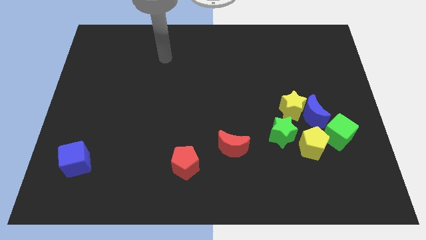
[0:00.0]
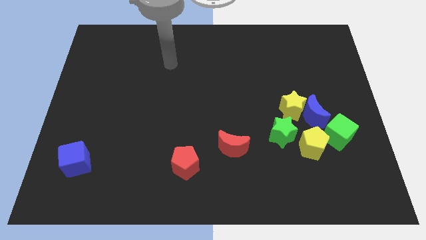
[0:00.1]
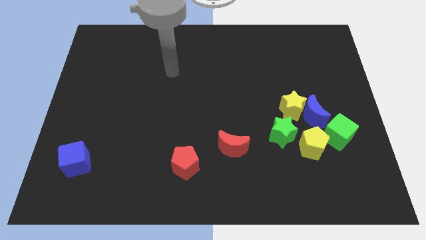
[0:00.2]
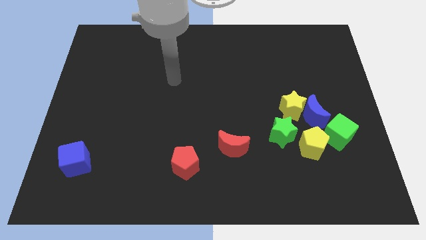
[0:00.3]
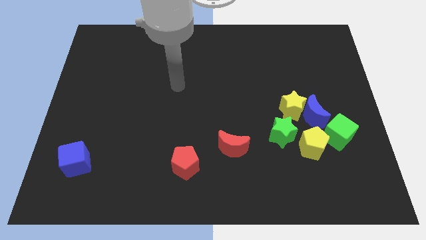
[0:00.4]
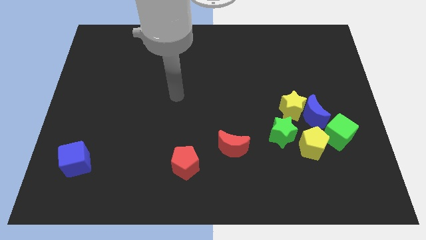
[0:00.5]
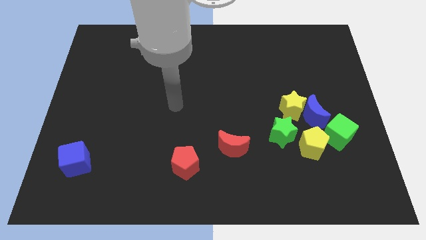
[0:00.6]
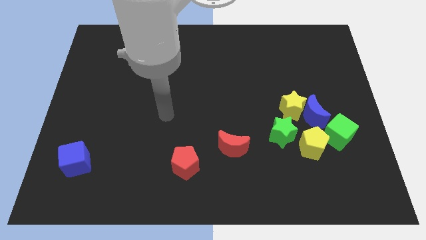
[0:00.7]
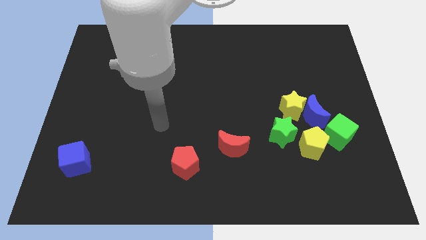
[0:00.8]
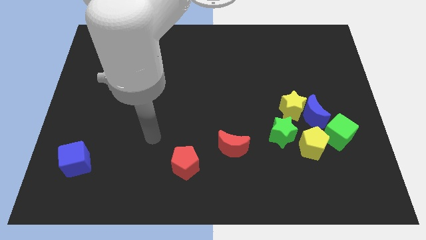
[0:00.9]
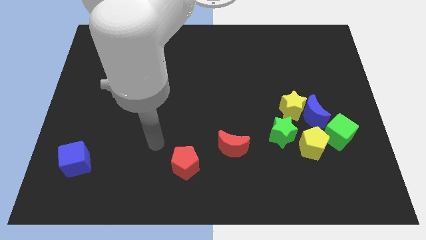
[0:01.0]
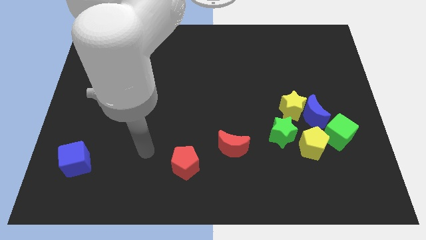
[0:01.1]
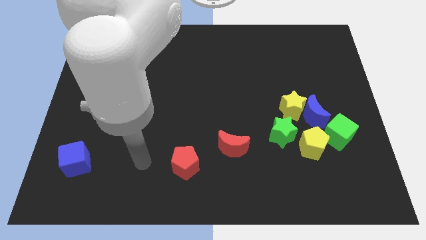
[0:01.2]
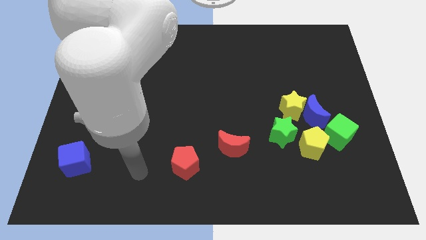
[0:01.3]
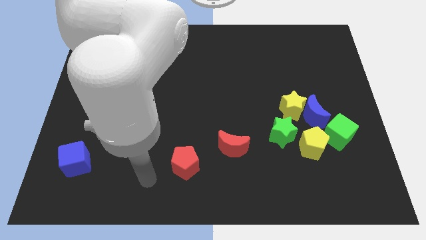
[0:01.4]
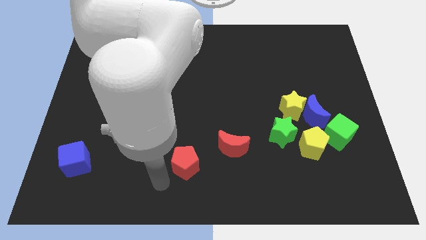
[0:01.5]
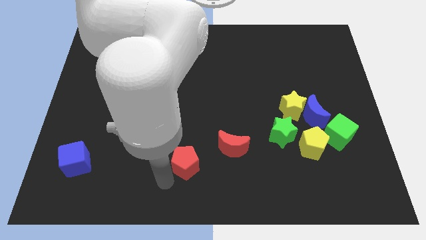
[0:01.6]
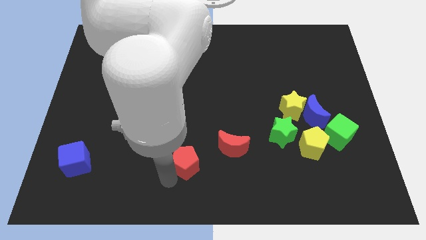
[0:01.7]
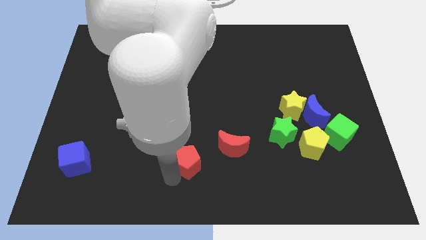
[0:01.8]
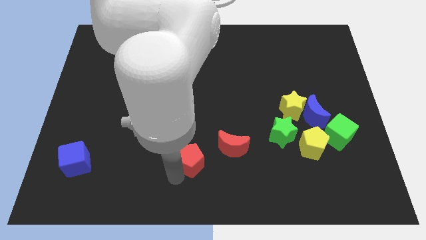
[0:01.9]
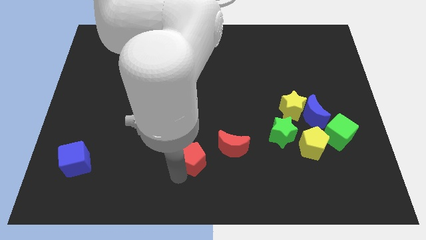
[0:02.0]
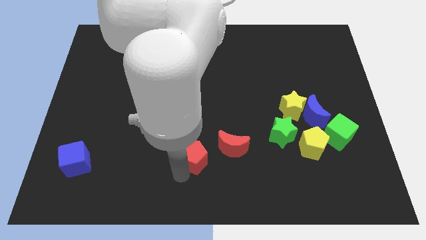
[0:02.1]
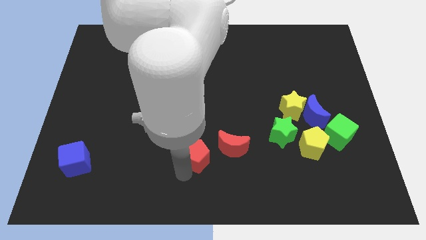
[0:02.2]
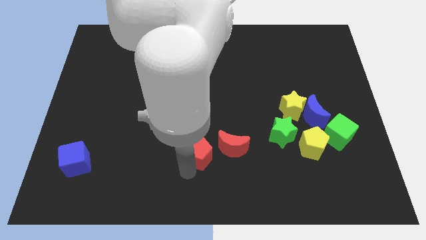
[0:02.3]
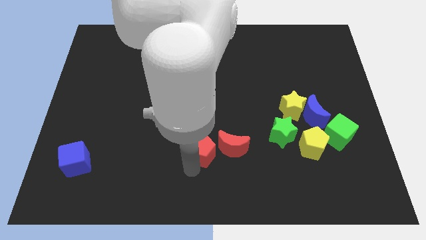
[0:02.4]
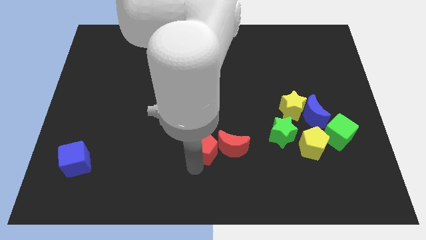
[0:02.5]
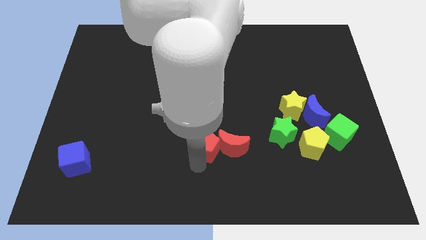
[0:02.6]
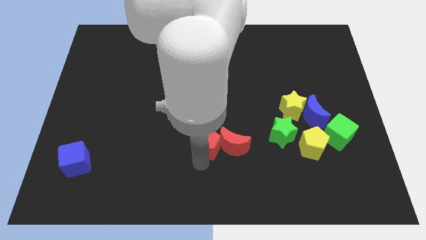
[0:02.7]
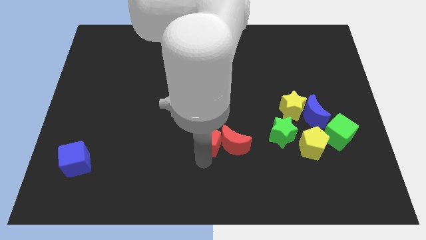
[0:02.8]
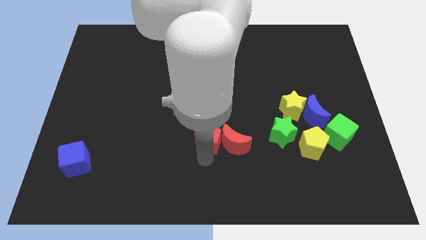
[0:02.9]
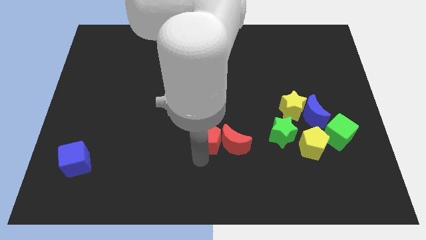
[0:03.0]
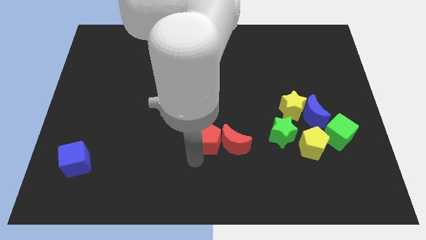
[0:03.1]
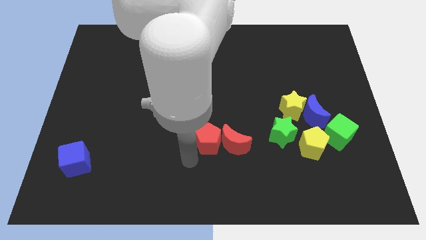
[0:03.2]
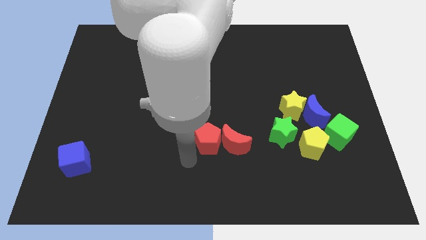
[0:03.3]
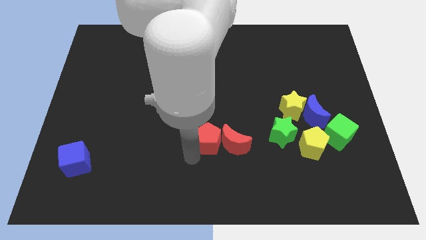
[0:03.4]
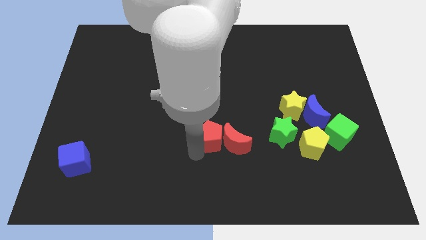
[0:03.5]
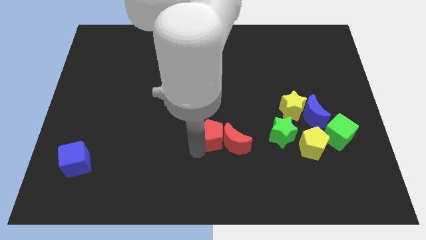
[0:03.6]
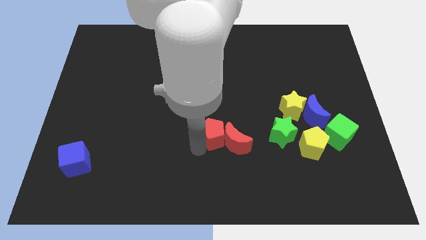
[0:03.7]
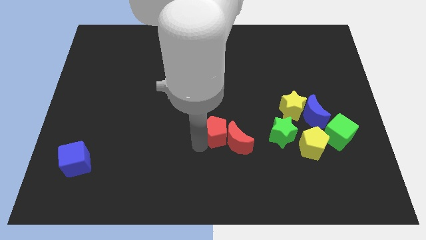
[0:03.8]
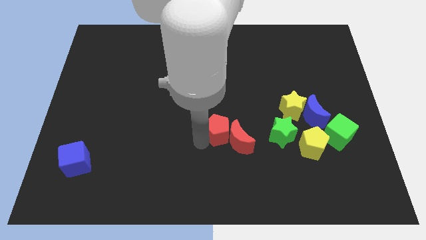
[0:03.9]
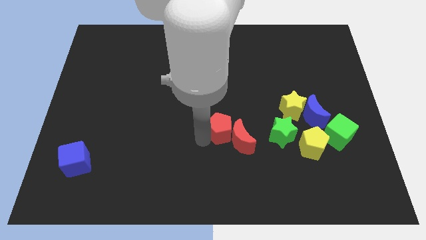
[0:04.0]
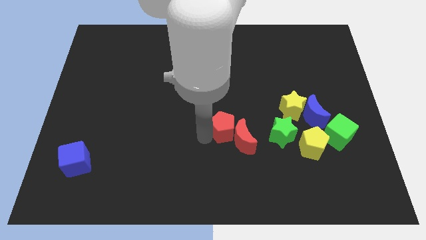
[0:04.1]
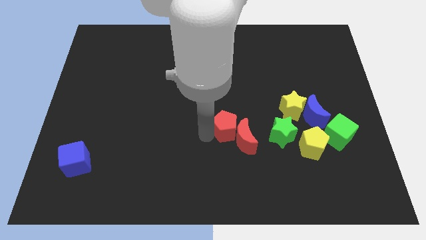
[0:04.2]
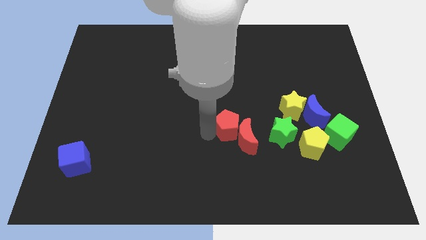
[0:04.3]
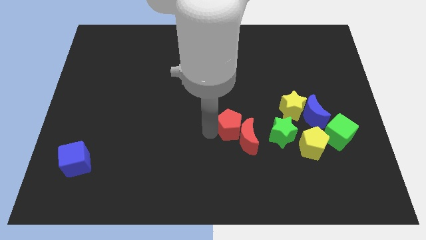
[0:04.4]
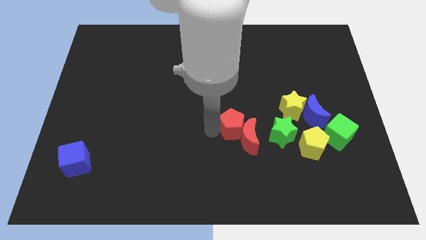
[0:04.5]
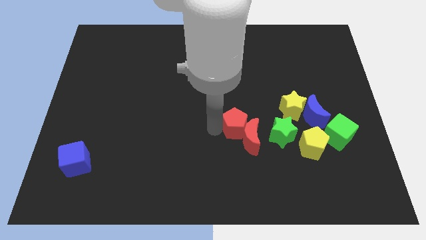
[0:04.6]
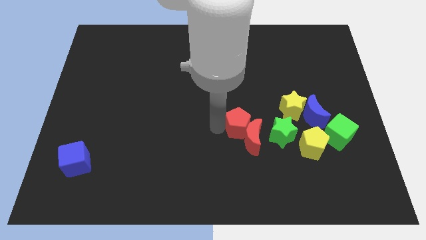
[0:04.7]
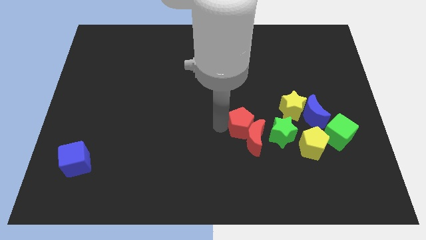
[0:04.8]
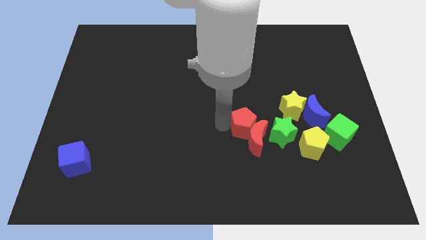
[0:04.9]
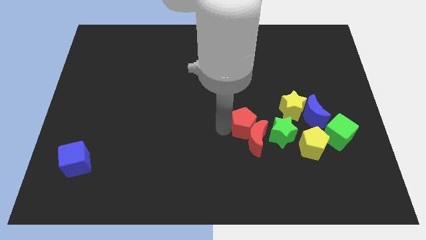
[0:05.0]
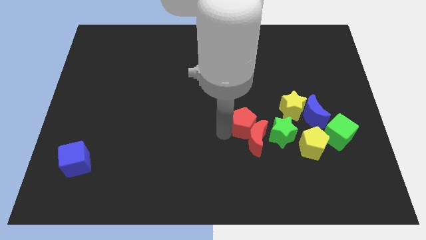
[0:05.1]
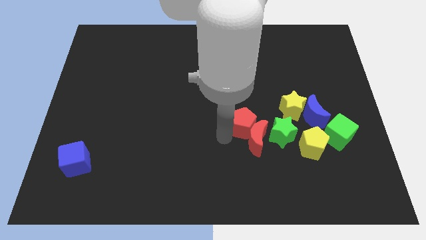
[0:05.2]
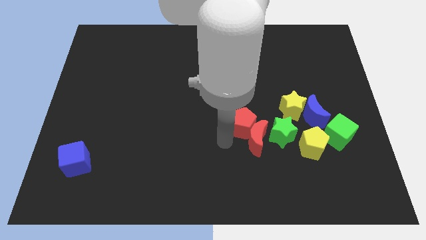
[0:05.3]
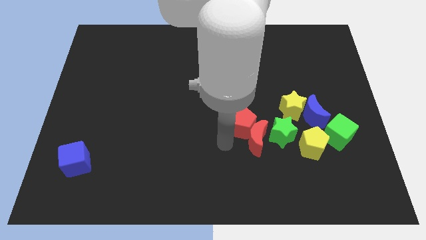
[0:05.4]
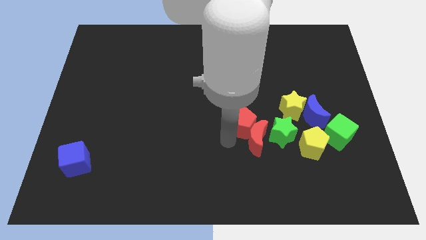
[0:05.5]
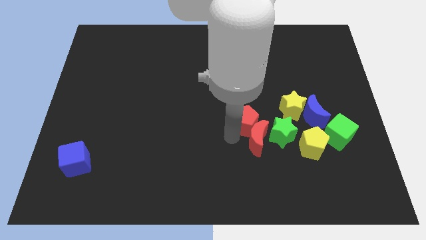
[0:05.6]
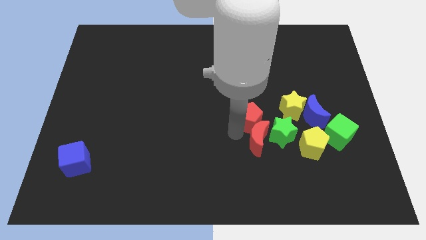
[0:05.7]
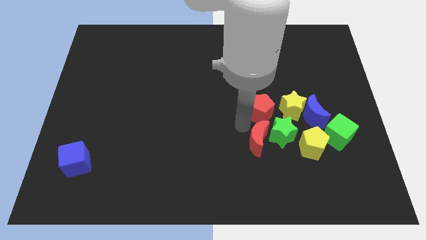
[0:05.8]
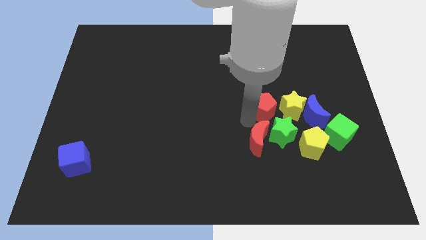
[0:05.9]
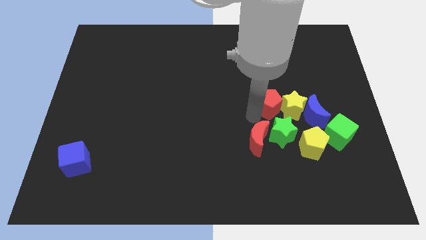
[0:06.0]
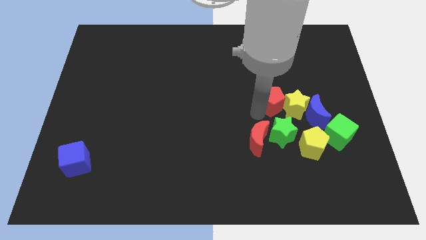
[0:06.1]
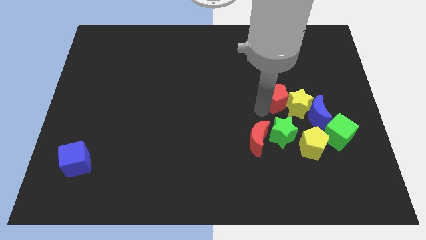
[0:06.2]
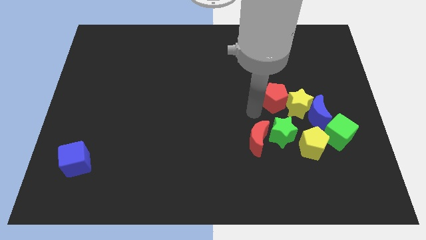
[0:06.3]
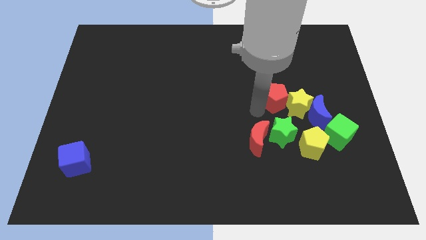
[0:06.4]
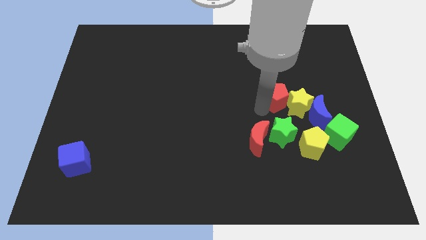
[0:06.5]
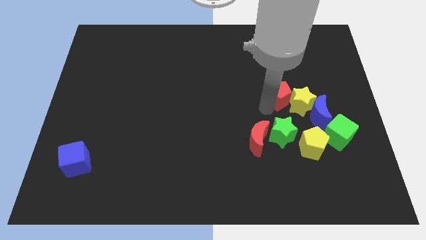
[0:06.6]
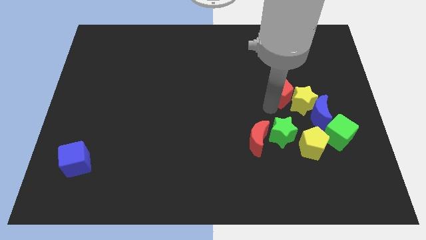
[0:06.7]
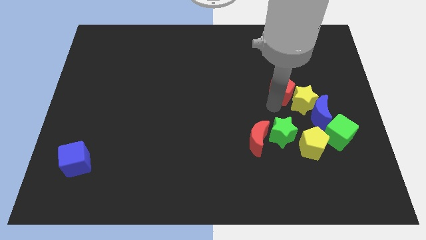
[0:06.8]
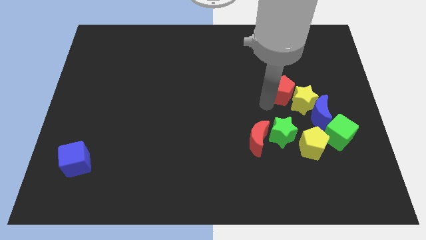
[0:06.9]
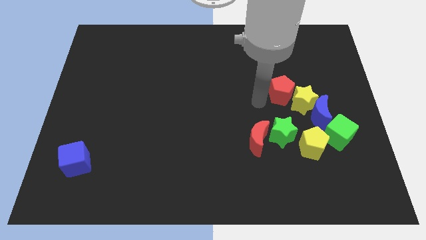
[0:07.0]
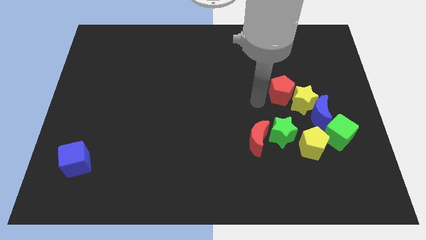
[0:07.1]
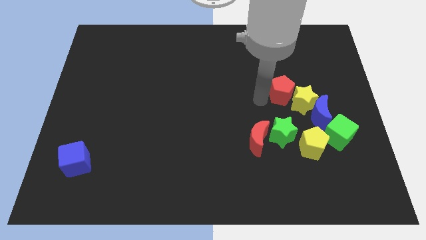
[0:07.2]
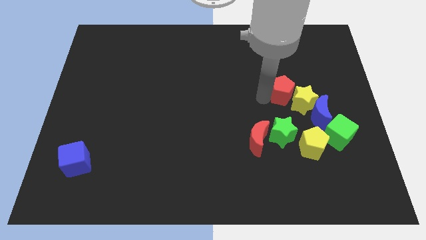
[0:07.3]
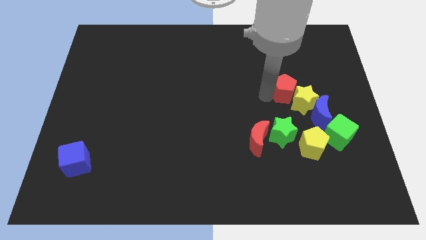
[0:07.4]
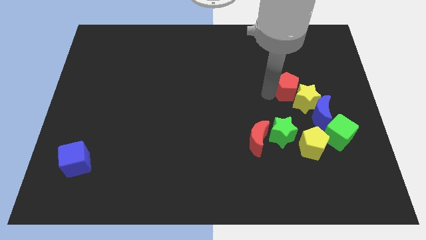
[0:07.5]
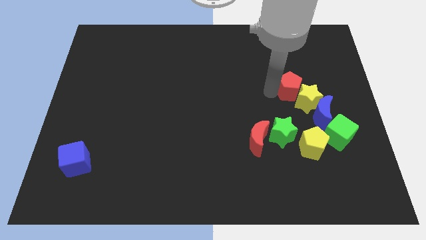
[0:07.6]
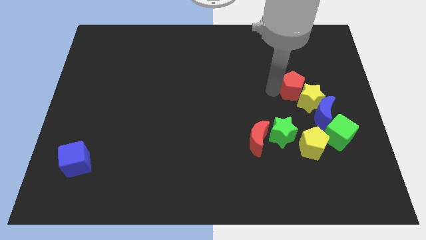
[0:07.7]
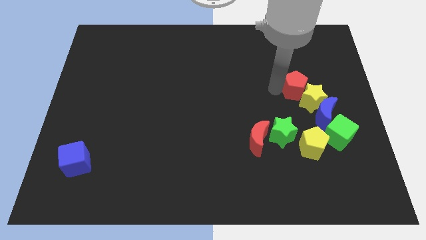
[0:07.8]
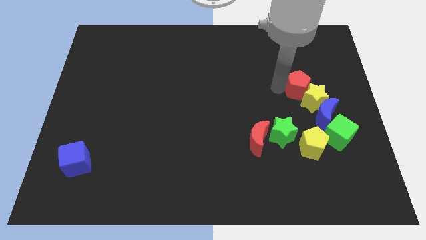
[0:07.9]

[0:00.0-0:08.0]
move the red pentagon to the top of the blue moon
